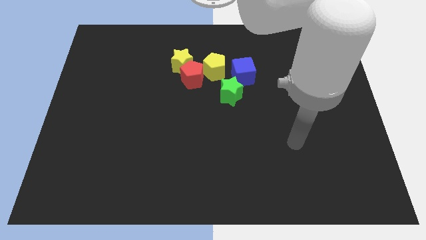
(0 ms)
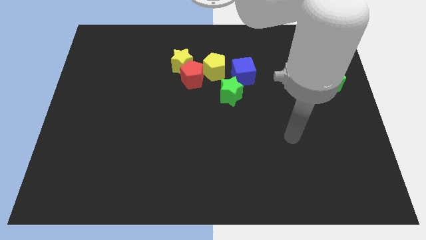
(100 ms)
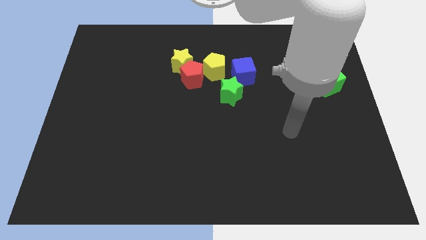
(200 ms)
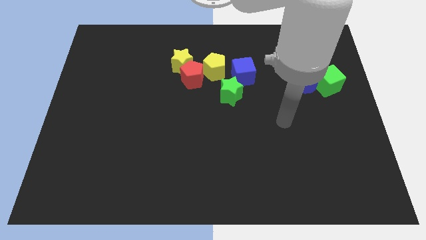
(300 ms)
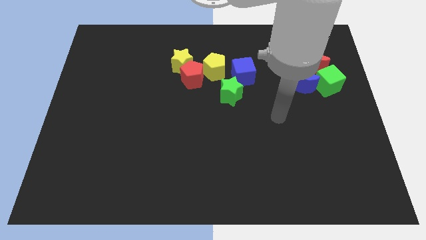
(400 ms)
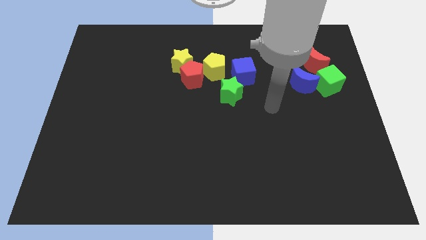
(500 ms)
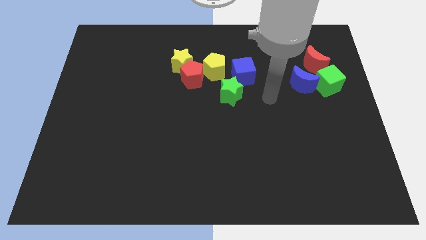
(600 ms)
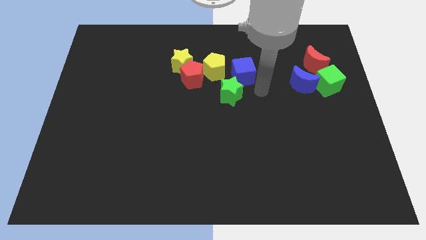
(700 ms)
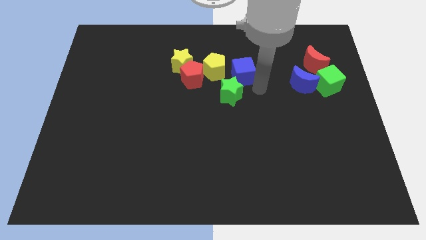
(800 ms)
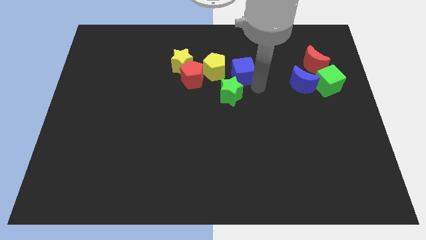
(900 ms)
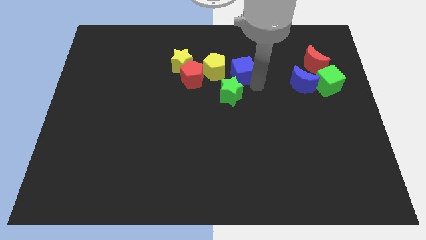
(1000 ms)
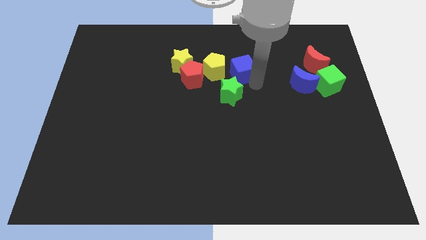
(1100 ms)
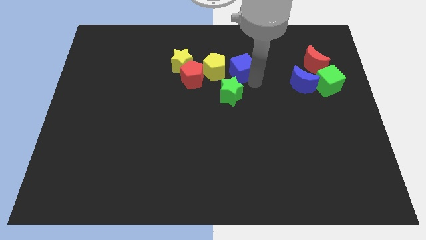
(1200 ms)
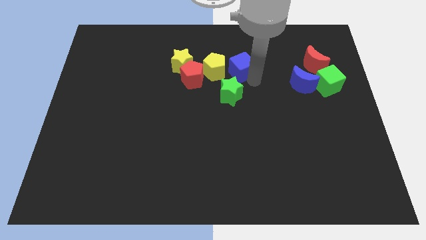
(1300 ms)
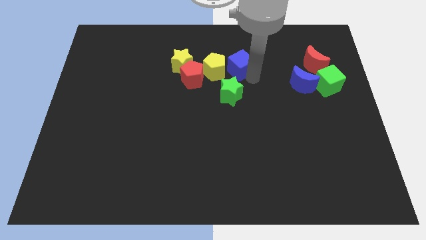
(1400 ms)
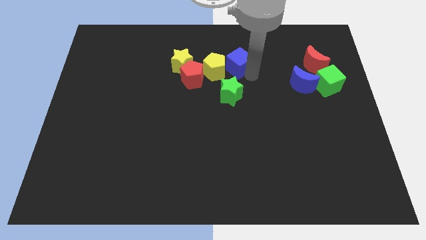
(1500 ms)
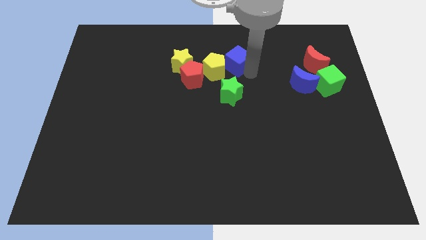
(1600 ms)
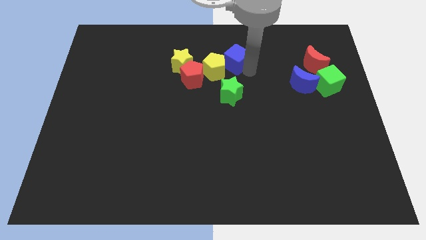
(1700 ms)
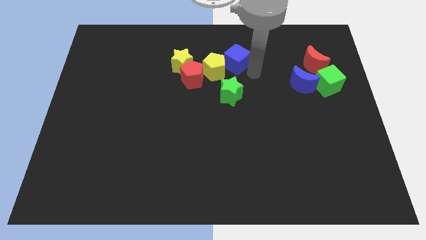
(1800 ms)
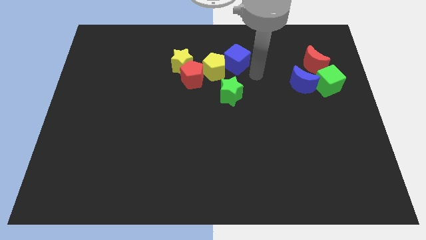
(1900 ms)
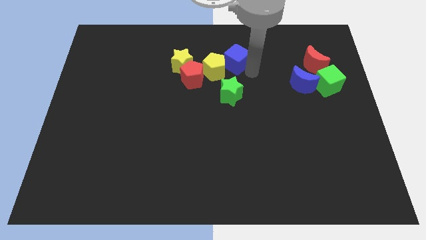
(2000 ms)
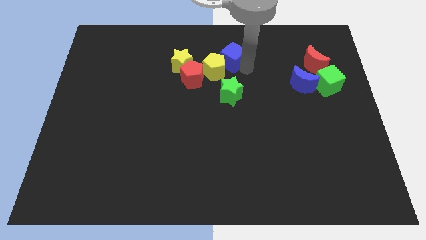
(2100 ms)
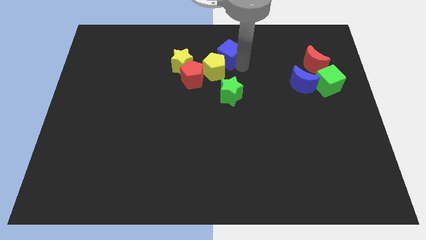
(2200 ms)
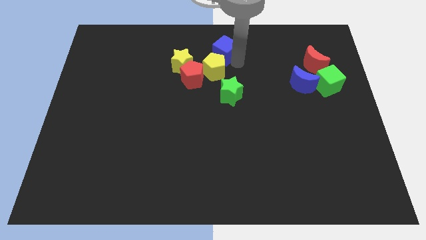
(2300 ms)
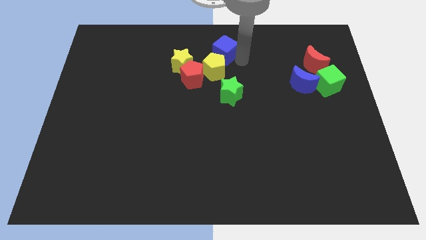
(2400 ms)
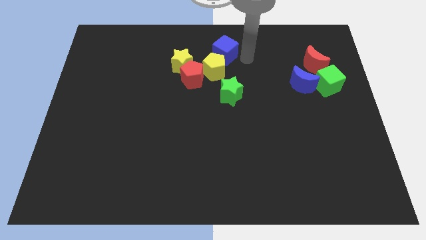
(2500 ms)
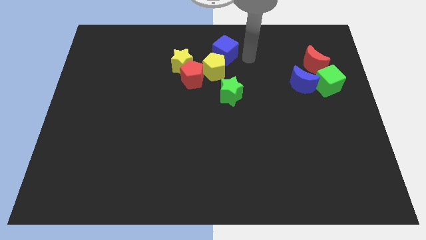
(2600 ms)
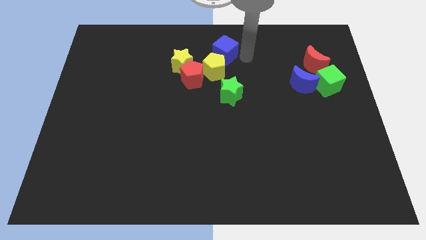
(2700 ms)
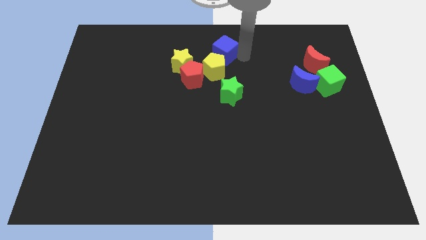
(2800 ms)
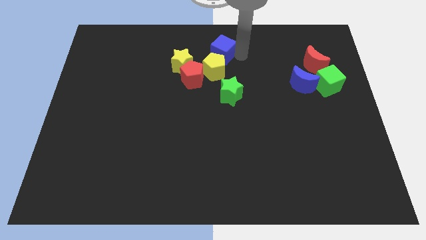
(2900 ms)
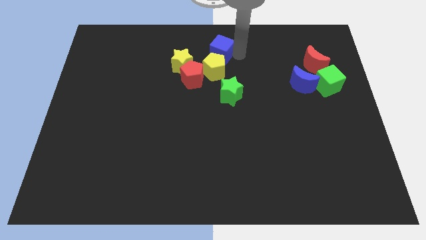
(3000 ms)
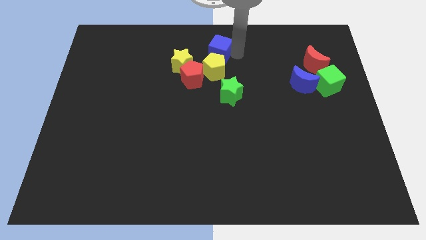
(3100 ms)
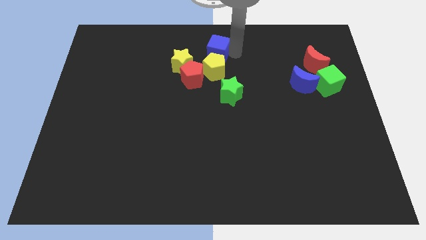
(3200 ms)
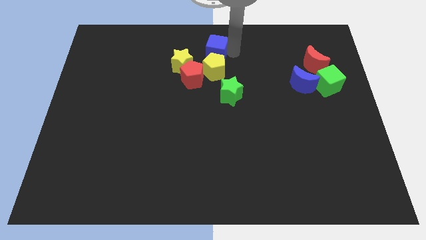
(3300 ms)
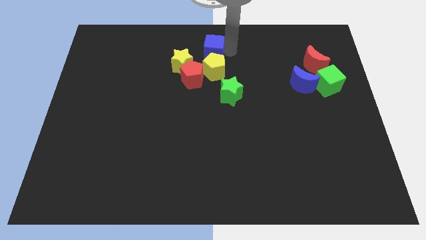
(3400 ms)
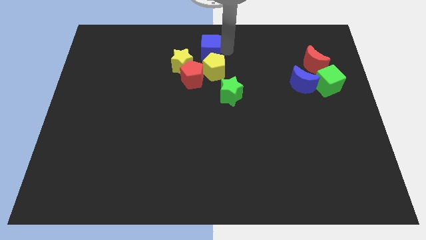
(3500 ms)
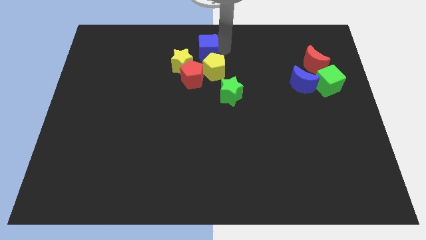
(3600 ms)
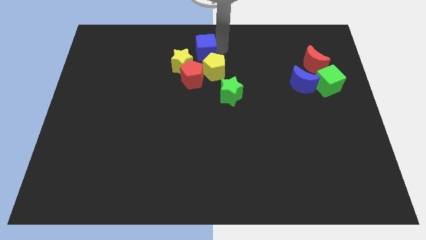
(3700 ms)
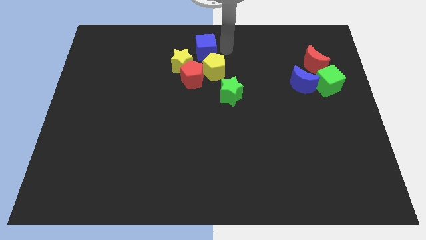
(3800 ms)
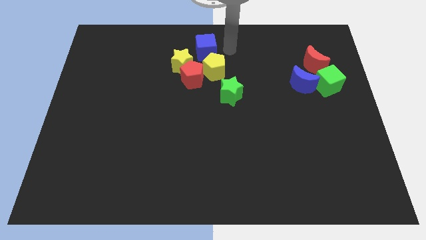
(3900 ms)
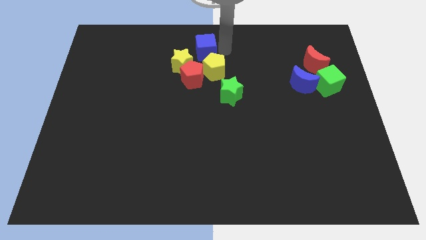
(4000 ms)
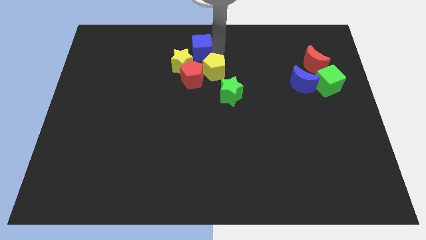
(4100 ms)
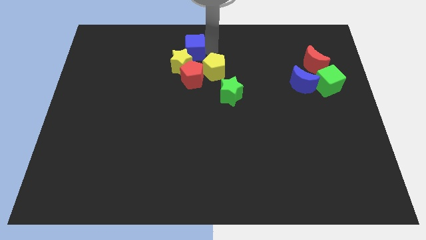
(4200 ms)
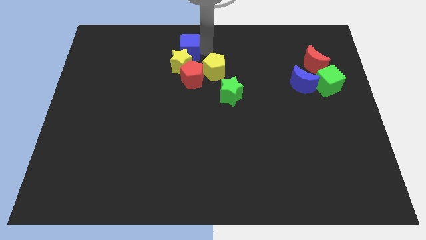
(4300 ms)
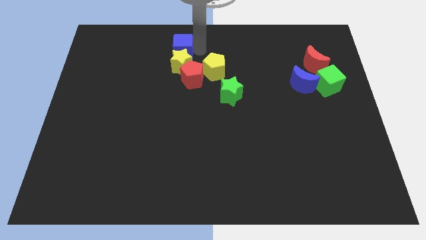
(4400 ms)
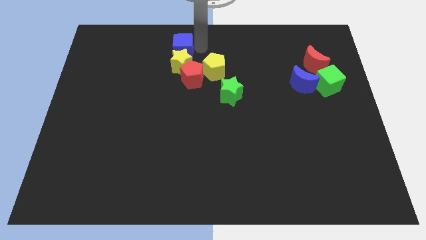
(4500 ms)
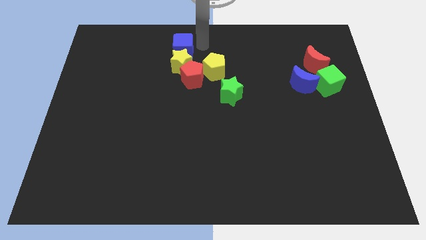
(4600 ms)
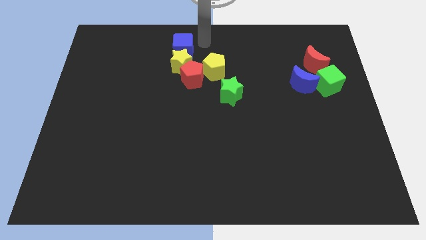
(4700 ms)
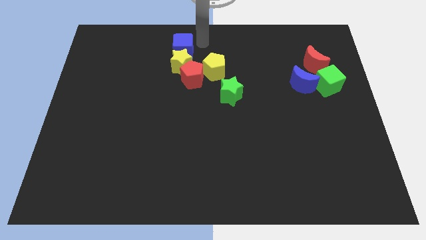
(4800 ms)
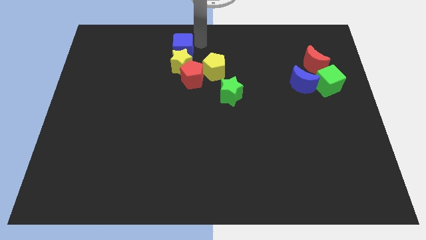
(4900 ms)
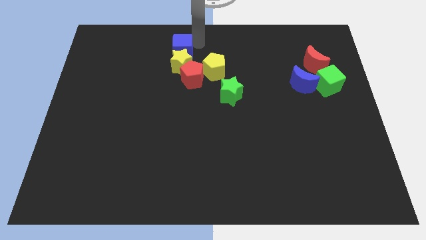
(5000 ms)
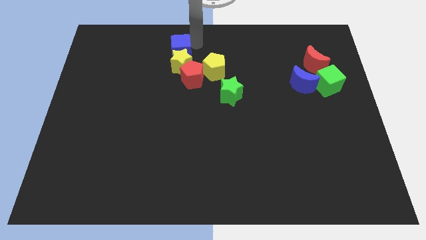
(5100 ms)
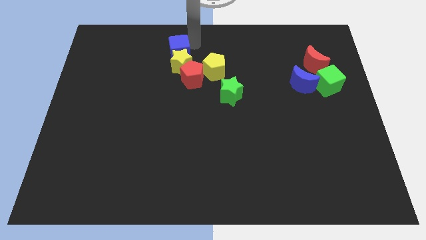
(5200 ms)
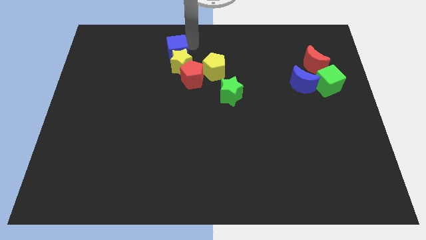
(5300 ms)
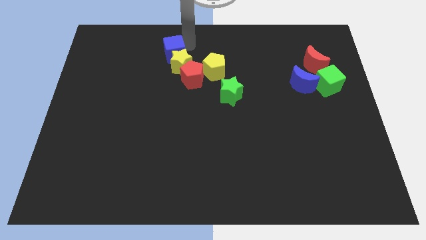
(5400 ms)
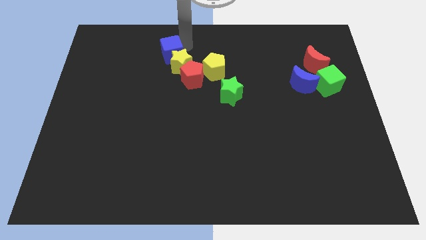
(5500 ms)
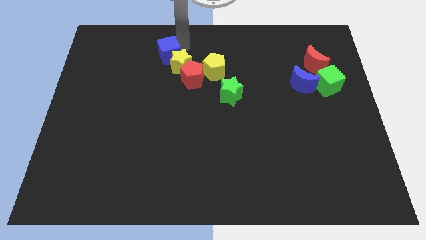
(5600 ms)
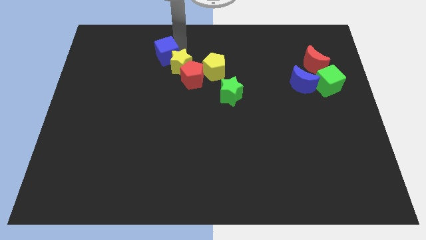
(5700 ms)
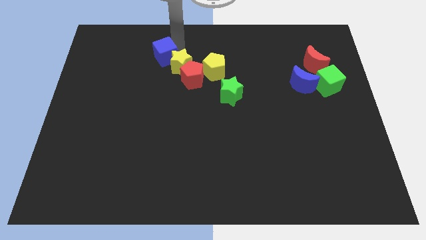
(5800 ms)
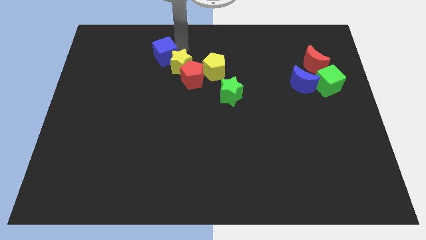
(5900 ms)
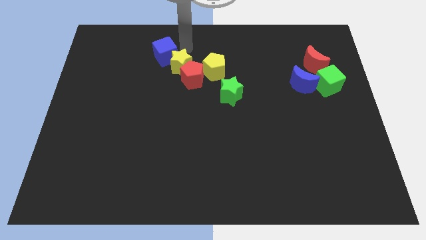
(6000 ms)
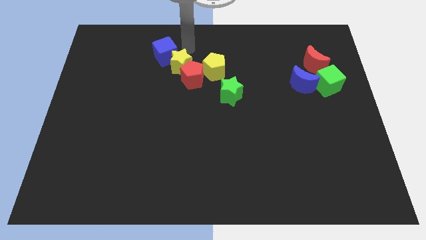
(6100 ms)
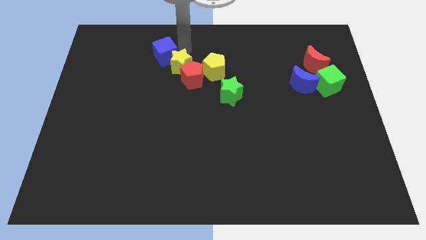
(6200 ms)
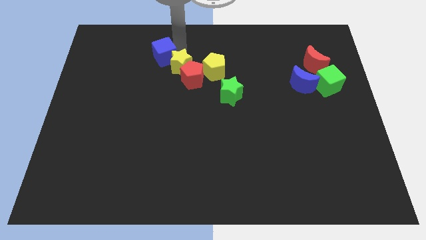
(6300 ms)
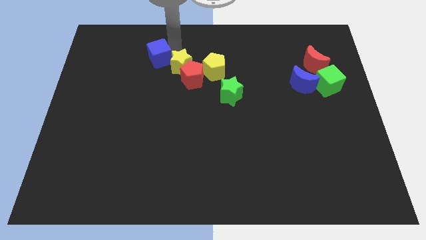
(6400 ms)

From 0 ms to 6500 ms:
slide the blue cube left

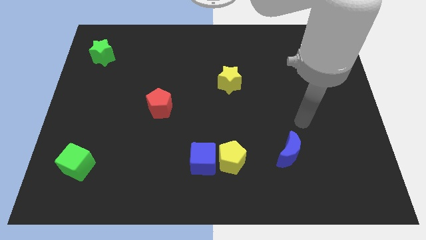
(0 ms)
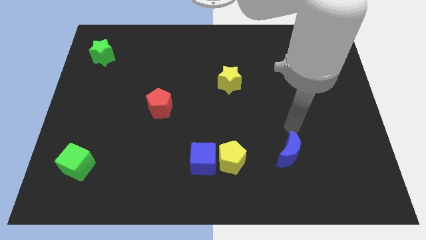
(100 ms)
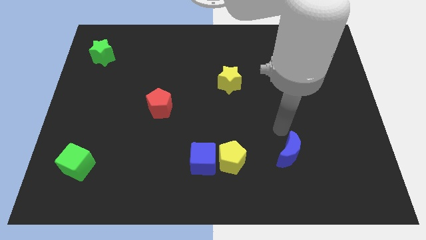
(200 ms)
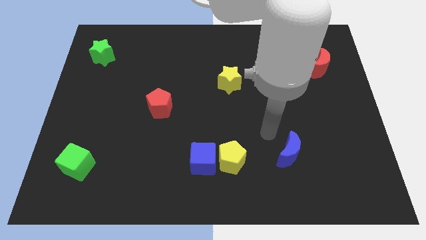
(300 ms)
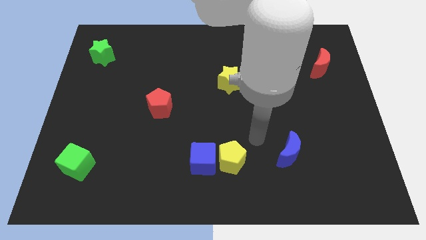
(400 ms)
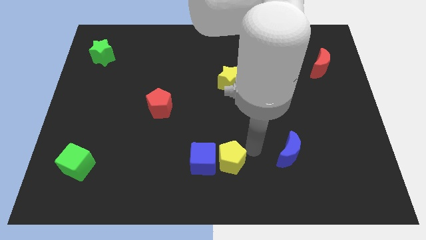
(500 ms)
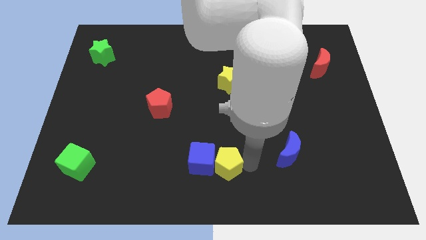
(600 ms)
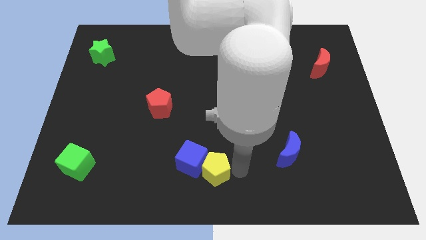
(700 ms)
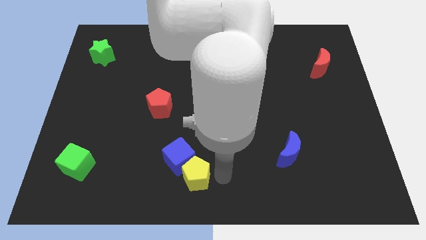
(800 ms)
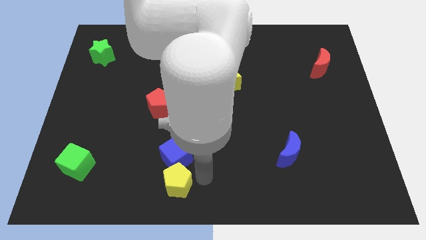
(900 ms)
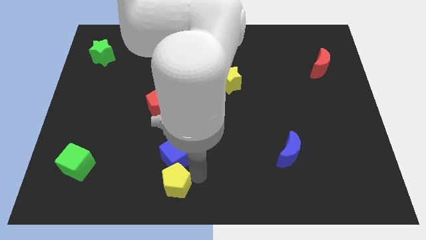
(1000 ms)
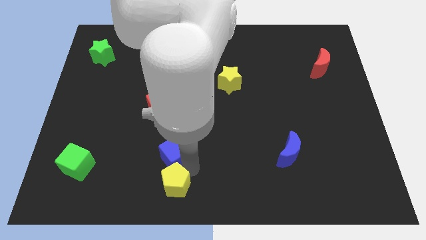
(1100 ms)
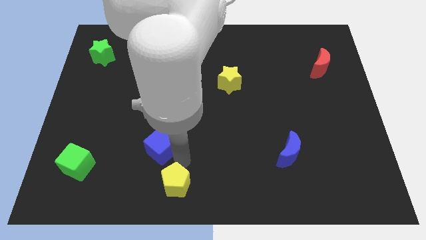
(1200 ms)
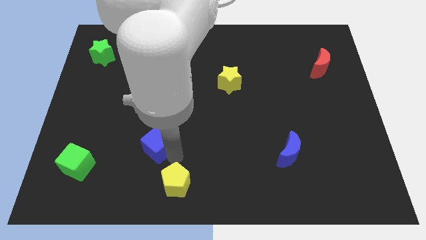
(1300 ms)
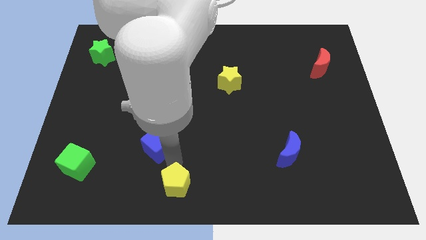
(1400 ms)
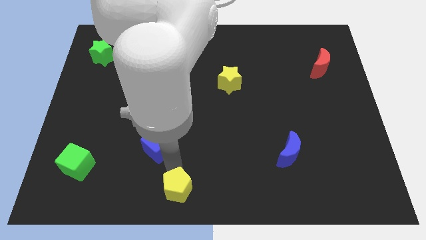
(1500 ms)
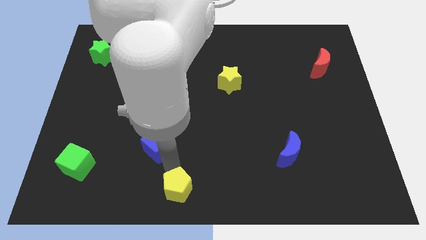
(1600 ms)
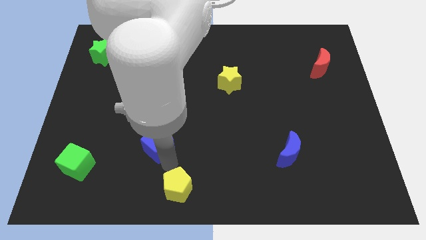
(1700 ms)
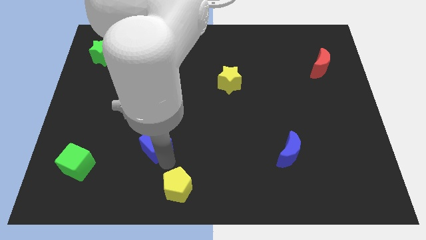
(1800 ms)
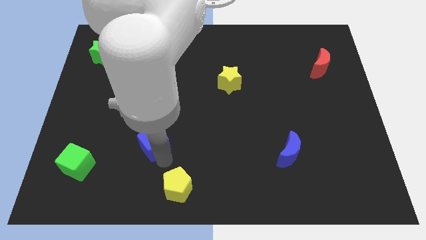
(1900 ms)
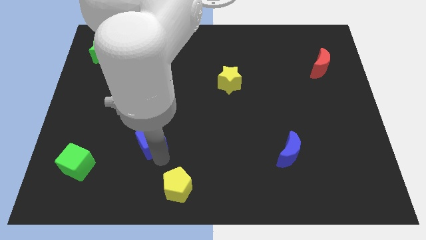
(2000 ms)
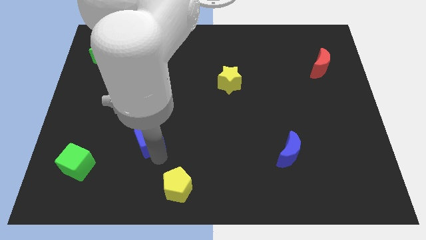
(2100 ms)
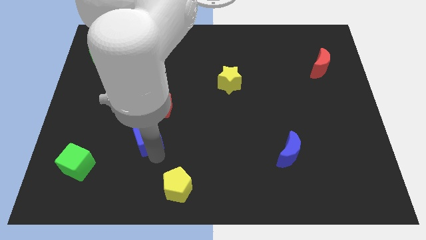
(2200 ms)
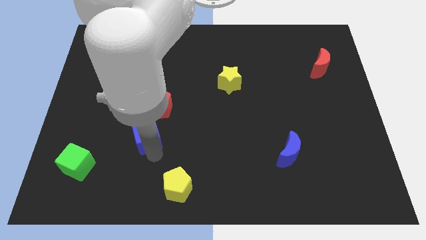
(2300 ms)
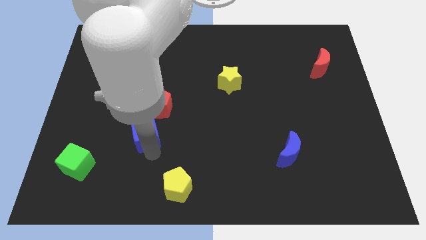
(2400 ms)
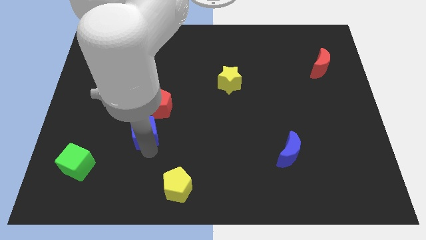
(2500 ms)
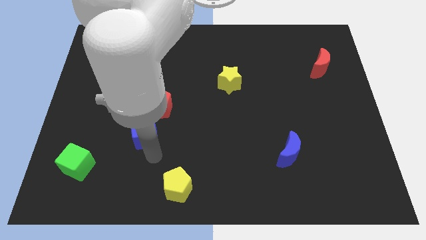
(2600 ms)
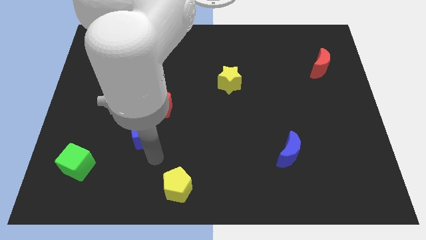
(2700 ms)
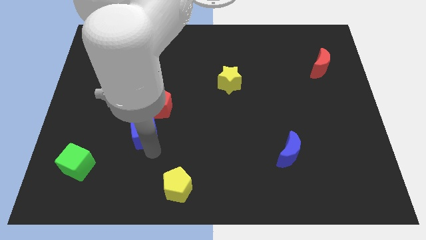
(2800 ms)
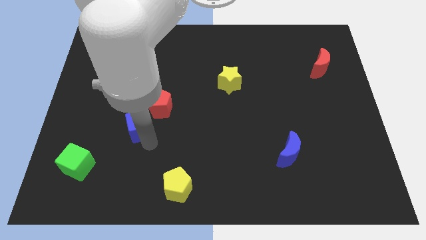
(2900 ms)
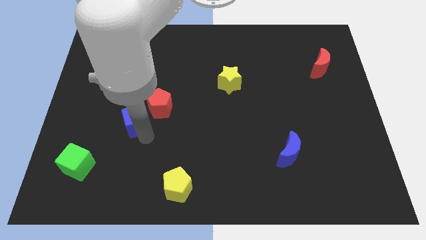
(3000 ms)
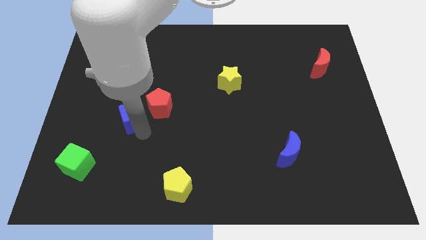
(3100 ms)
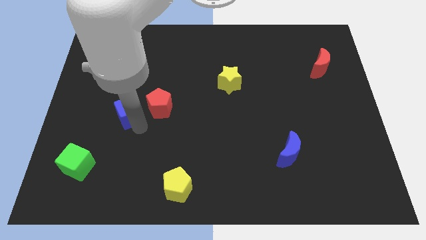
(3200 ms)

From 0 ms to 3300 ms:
slide the blue cube upwards and to the left diagonally
